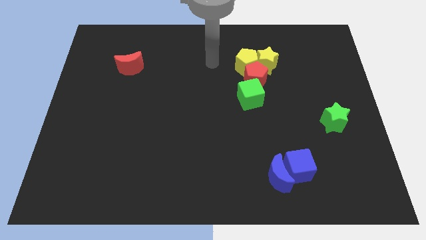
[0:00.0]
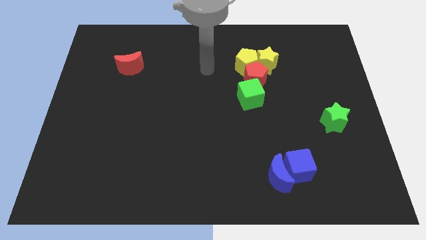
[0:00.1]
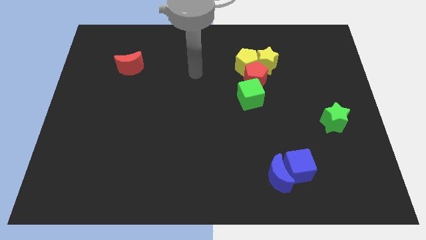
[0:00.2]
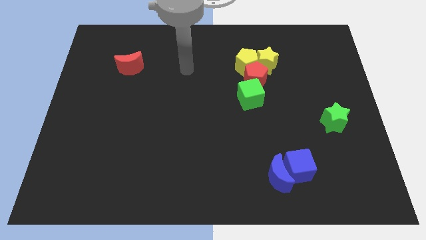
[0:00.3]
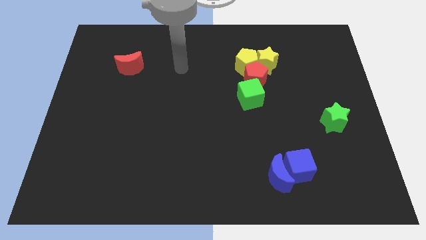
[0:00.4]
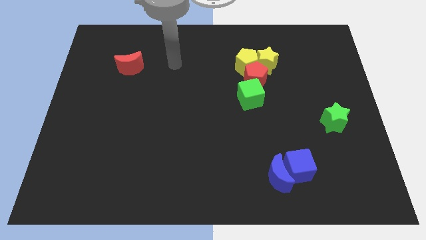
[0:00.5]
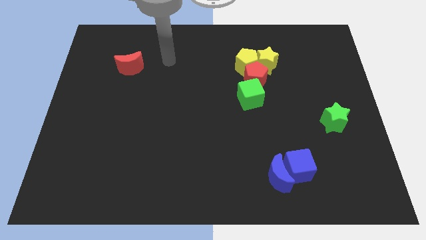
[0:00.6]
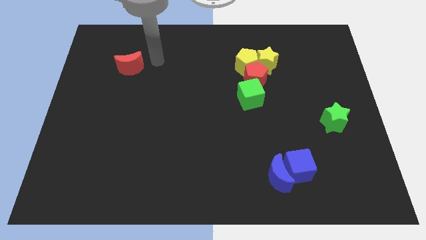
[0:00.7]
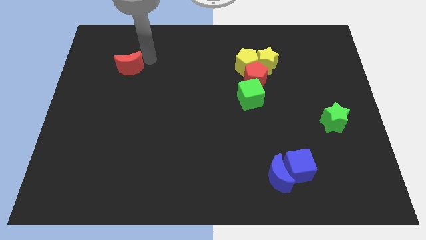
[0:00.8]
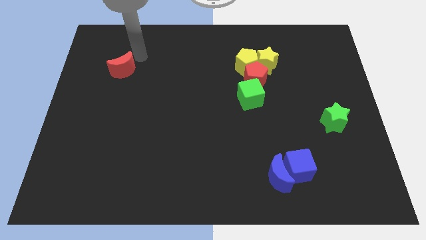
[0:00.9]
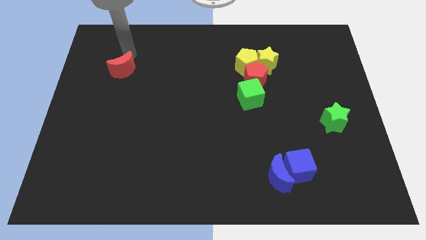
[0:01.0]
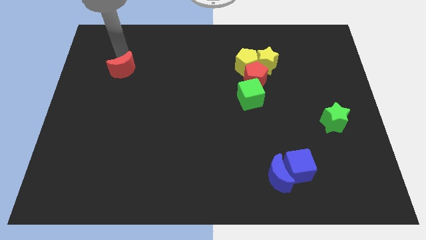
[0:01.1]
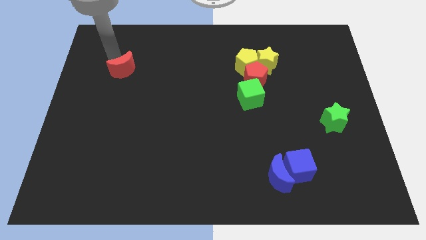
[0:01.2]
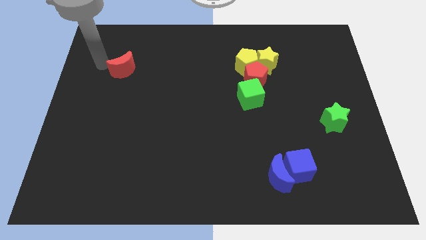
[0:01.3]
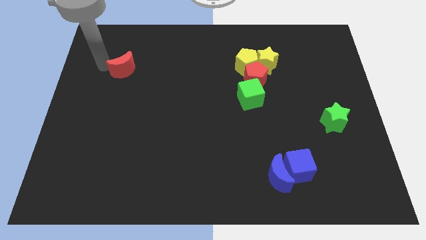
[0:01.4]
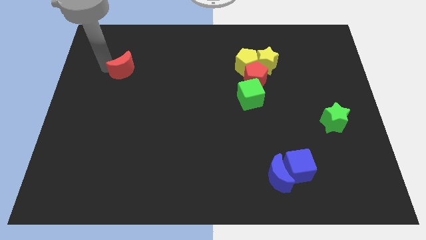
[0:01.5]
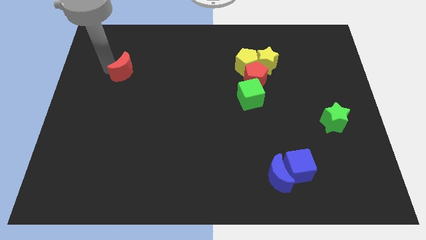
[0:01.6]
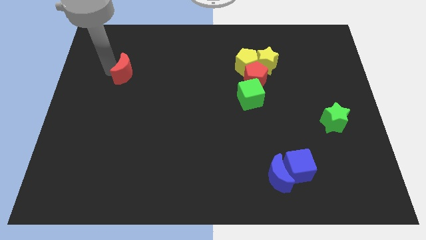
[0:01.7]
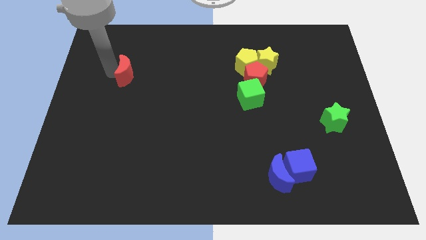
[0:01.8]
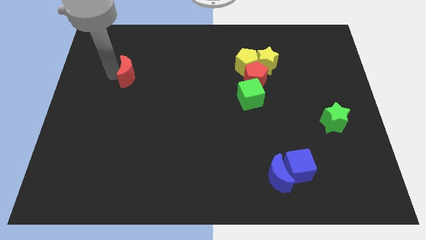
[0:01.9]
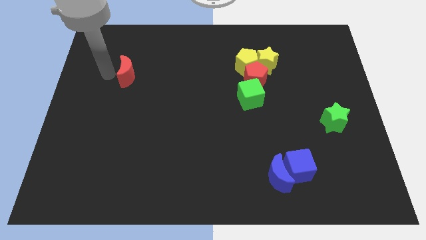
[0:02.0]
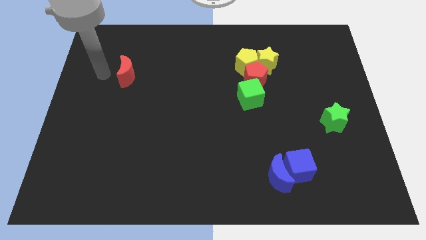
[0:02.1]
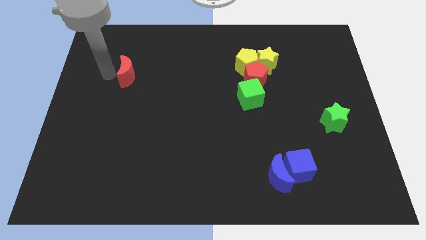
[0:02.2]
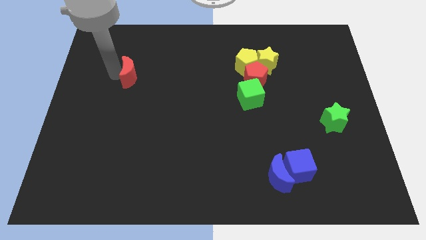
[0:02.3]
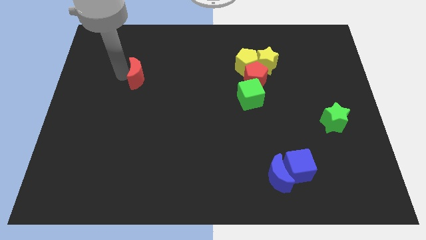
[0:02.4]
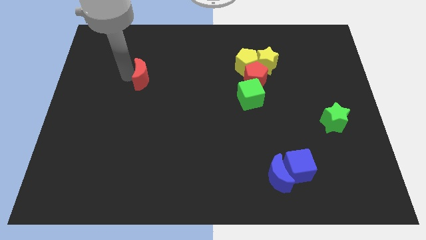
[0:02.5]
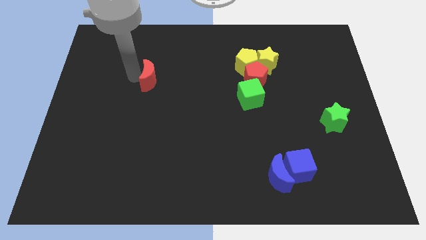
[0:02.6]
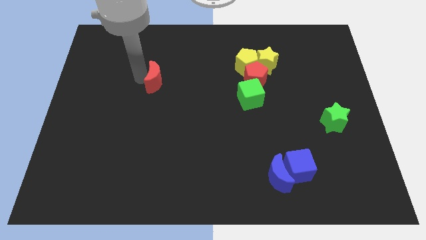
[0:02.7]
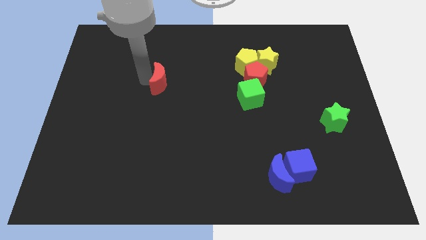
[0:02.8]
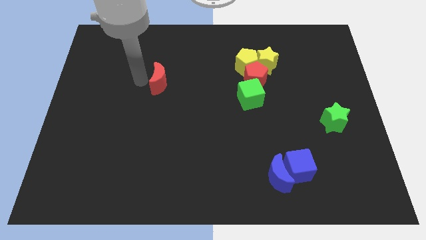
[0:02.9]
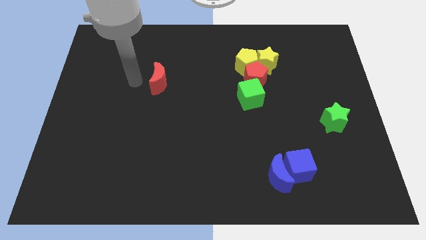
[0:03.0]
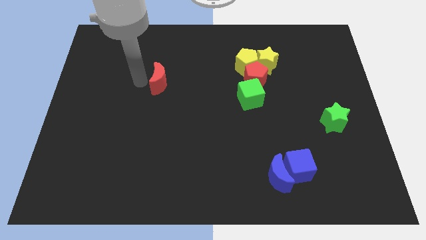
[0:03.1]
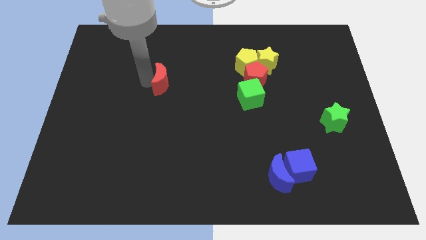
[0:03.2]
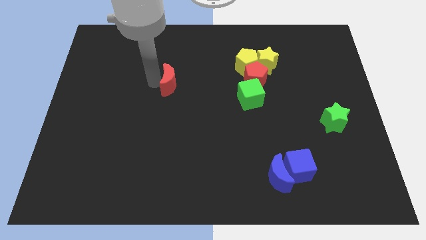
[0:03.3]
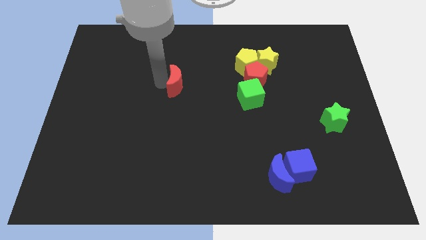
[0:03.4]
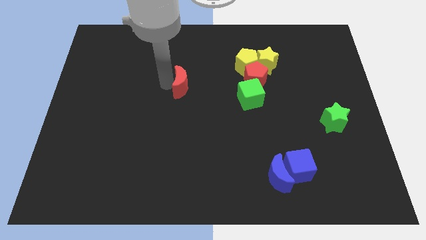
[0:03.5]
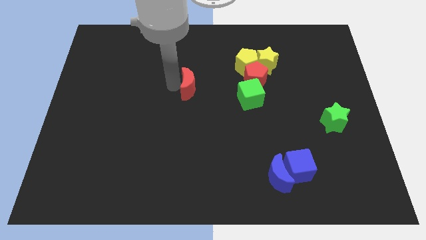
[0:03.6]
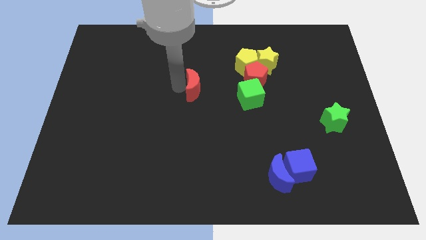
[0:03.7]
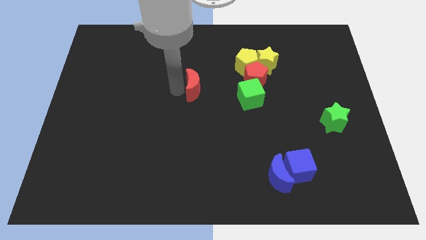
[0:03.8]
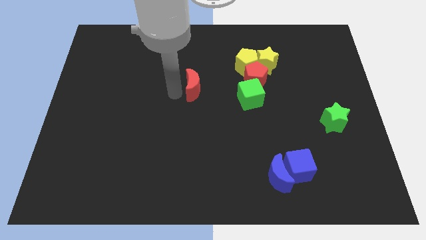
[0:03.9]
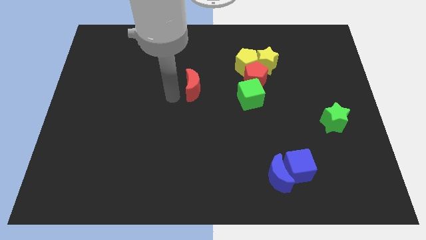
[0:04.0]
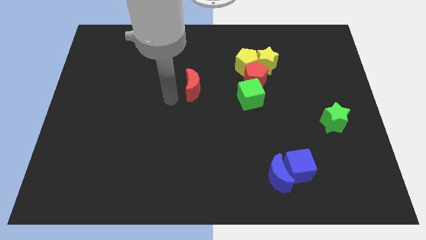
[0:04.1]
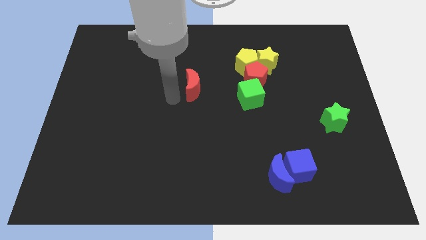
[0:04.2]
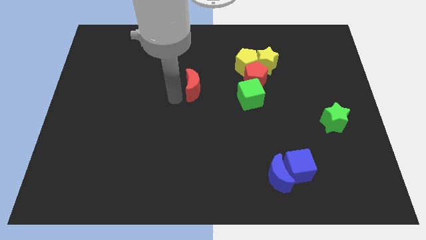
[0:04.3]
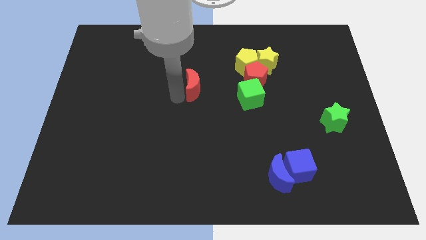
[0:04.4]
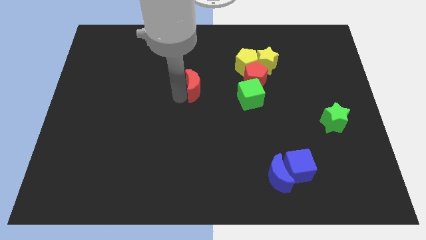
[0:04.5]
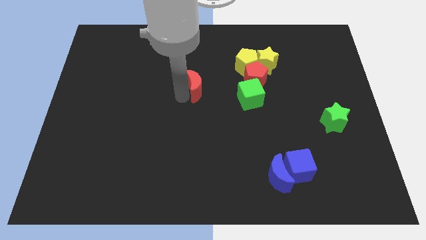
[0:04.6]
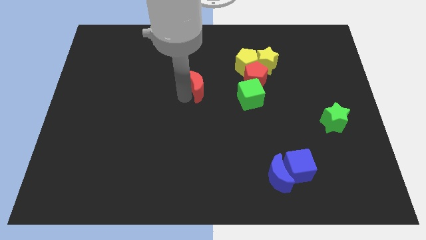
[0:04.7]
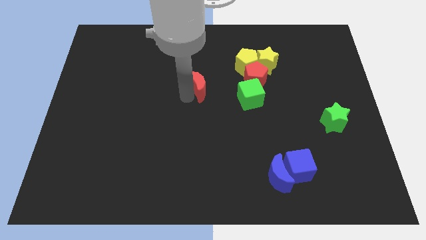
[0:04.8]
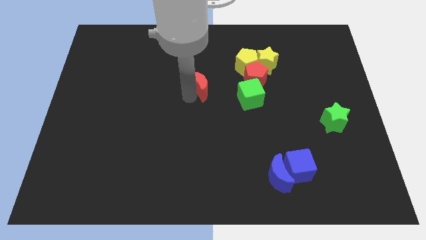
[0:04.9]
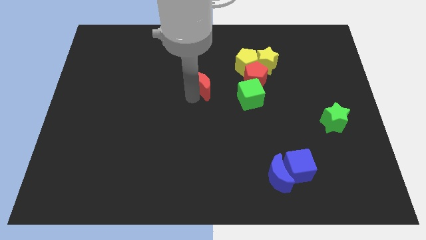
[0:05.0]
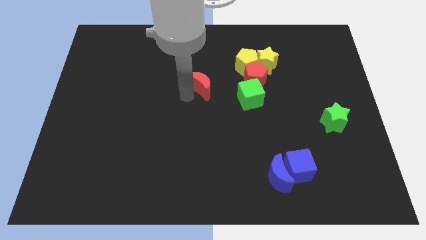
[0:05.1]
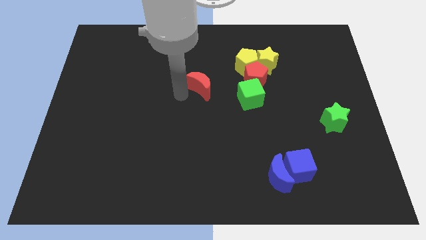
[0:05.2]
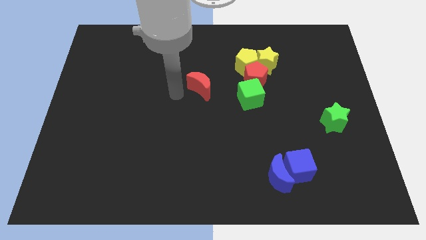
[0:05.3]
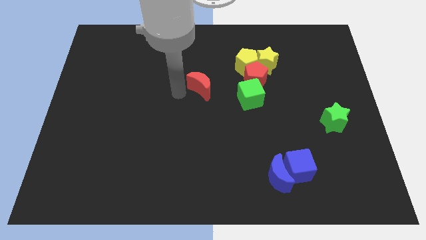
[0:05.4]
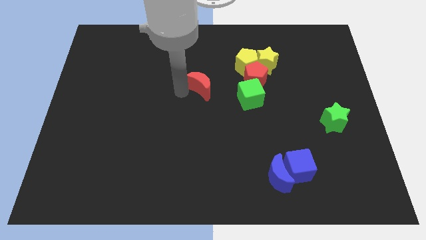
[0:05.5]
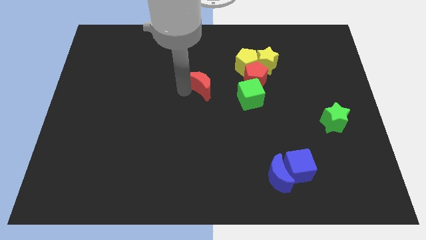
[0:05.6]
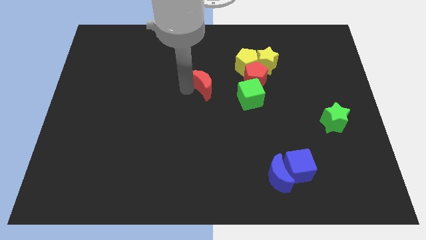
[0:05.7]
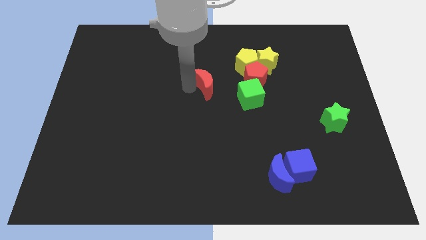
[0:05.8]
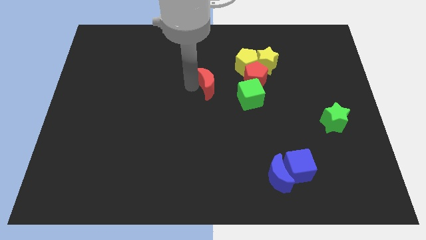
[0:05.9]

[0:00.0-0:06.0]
move the red moon diagonally up and to the left of the green cube

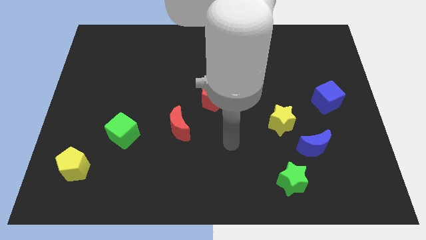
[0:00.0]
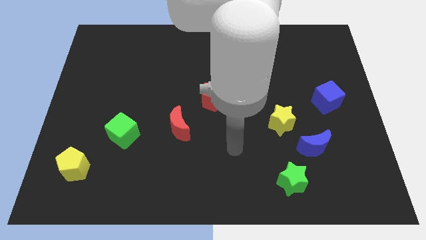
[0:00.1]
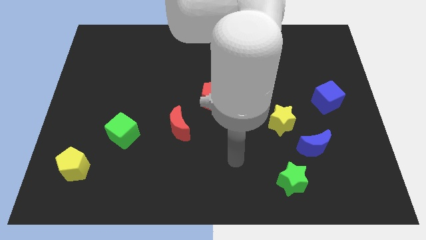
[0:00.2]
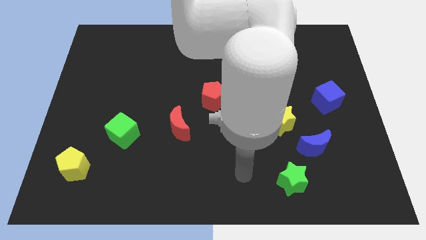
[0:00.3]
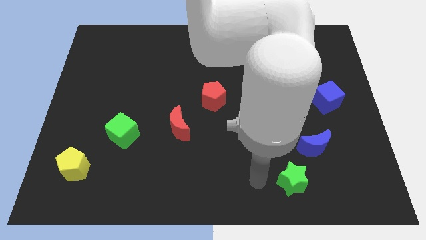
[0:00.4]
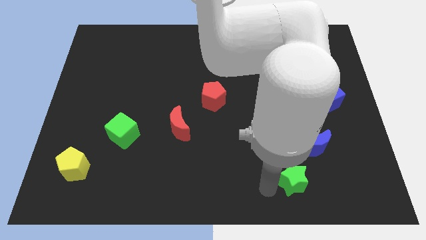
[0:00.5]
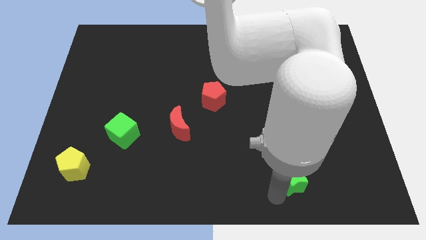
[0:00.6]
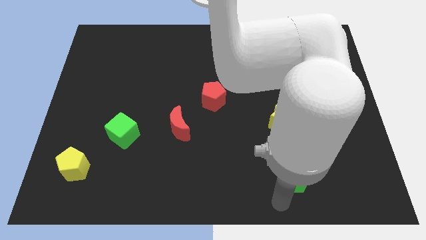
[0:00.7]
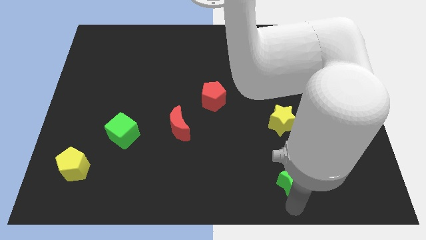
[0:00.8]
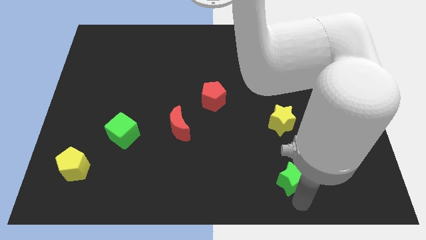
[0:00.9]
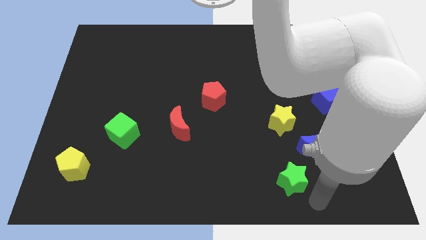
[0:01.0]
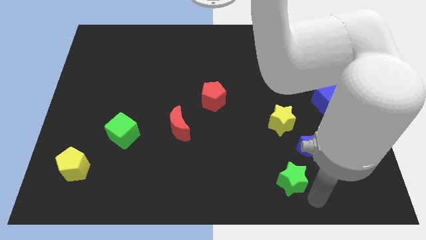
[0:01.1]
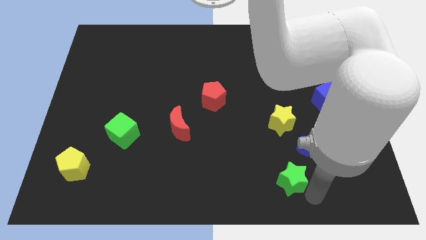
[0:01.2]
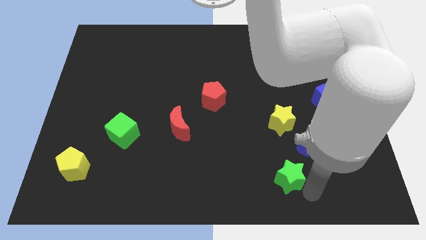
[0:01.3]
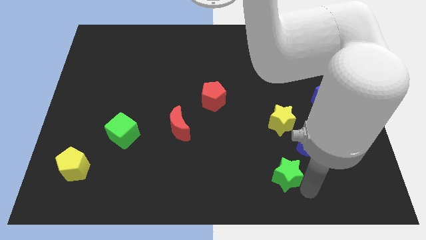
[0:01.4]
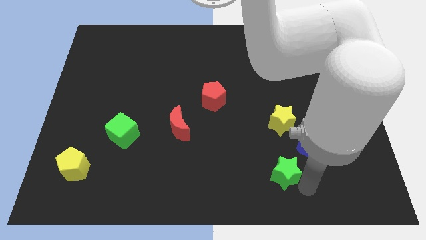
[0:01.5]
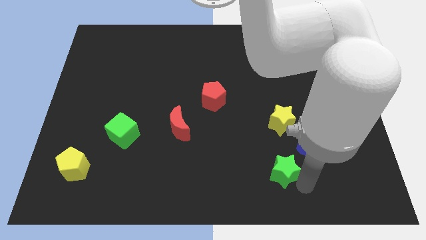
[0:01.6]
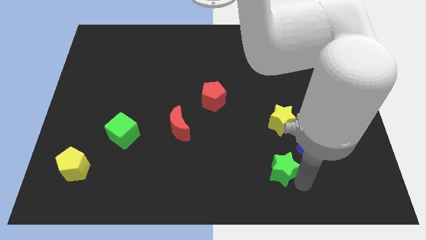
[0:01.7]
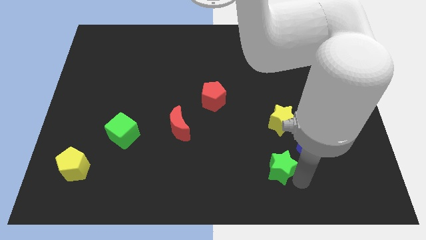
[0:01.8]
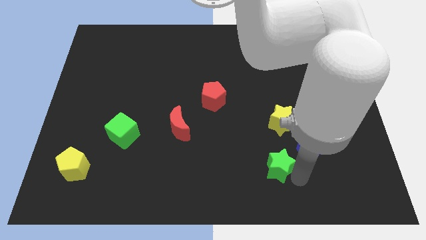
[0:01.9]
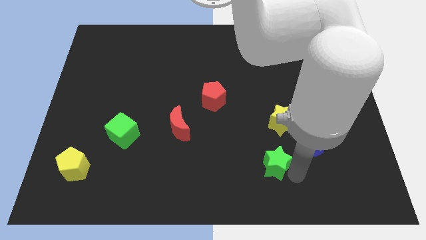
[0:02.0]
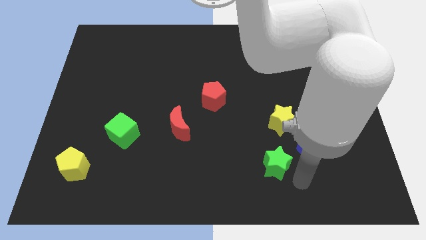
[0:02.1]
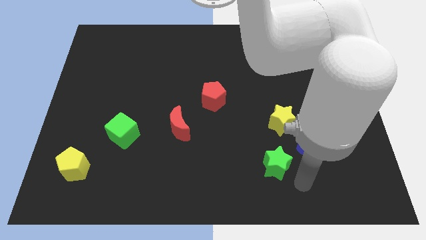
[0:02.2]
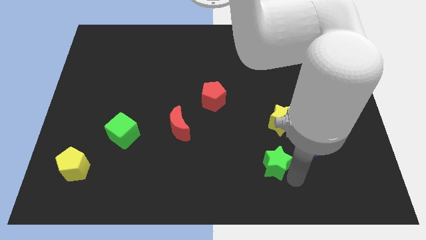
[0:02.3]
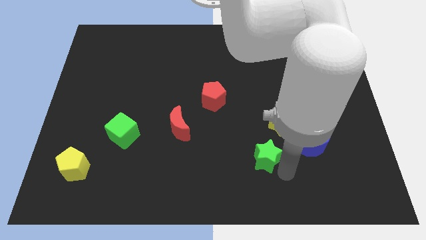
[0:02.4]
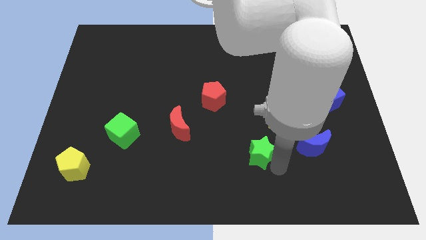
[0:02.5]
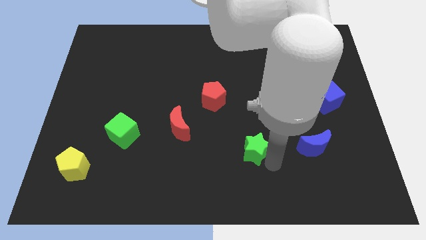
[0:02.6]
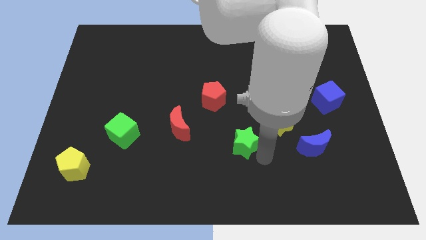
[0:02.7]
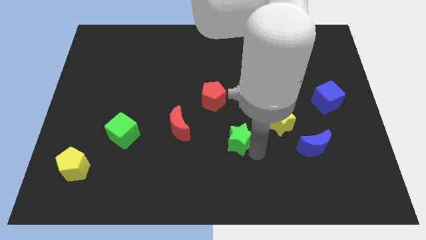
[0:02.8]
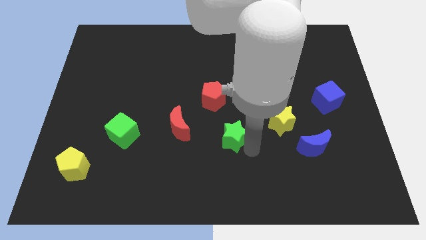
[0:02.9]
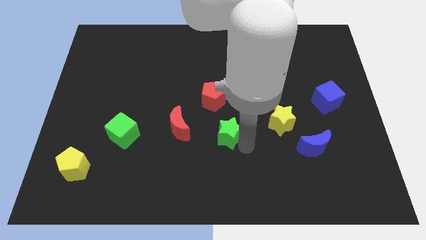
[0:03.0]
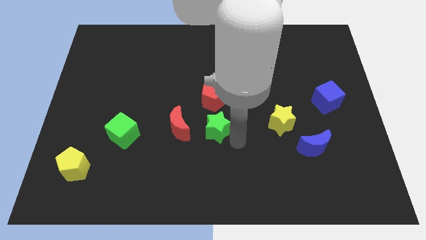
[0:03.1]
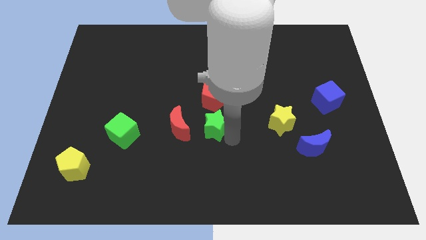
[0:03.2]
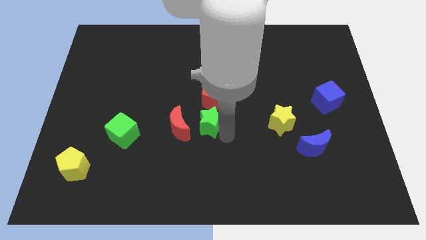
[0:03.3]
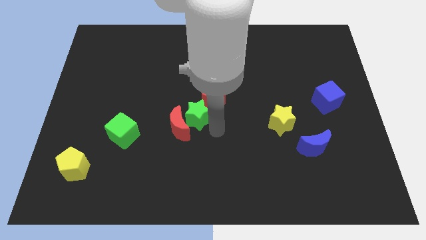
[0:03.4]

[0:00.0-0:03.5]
move the green star above the red moon
